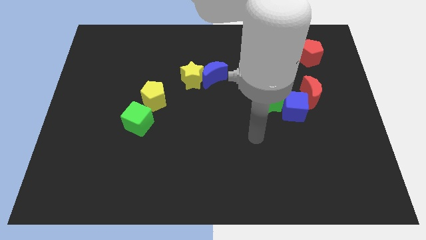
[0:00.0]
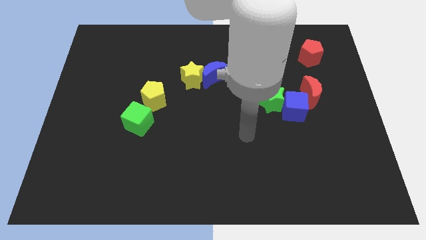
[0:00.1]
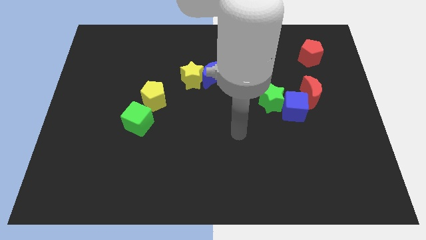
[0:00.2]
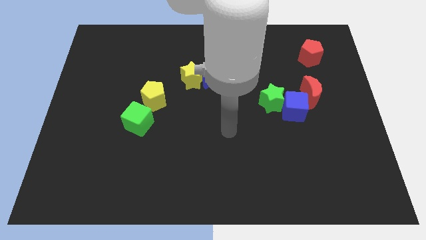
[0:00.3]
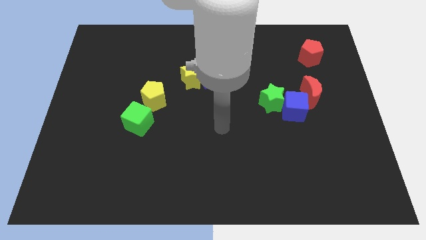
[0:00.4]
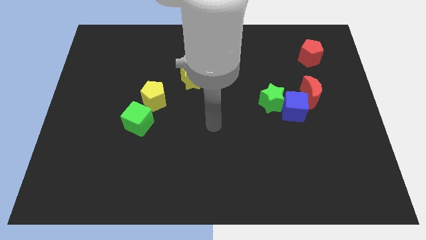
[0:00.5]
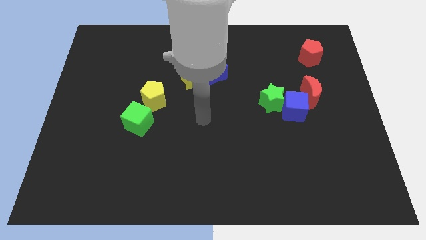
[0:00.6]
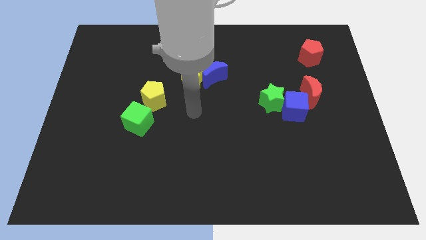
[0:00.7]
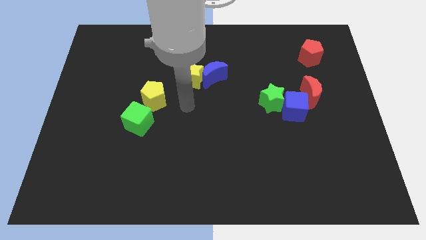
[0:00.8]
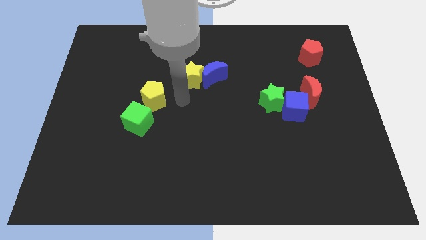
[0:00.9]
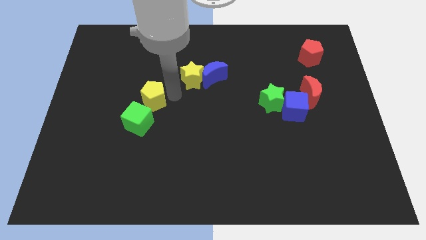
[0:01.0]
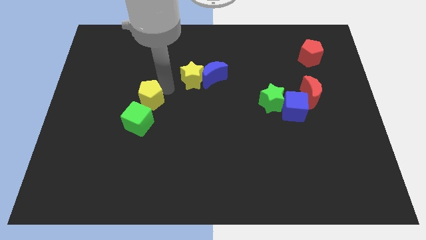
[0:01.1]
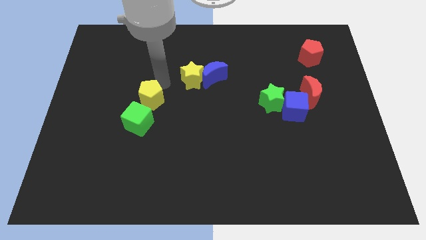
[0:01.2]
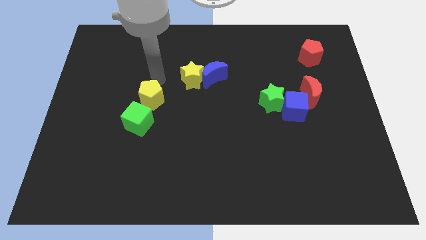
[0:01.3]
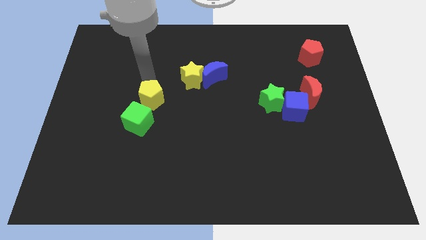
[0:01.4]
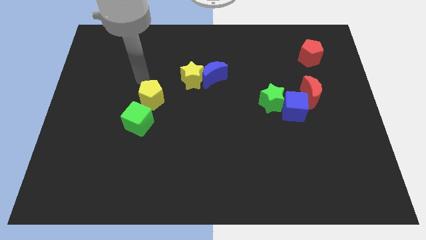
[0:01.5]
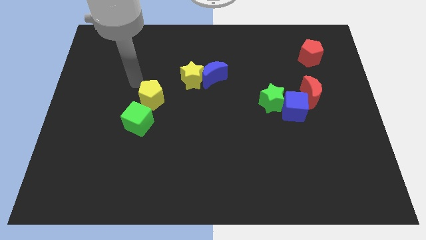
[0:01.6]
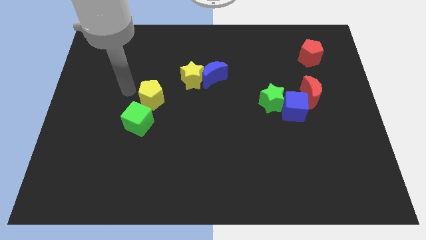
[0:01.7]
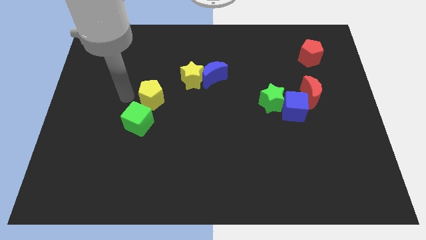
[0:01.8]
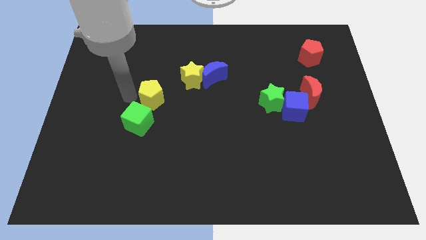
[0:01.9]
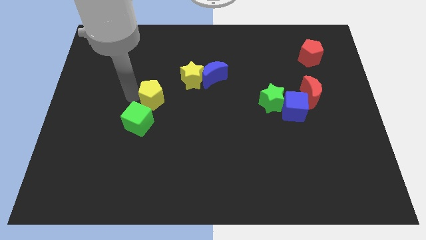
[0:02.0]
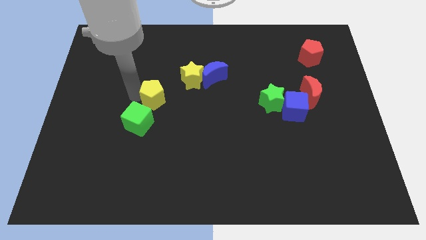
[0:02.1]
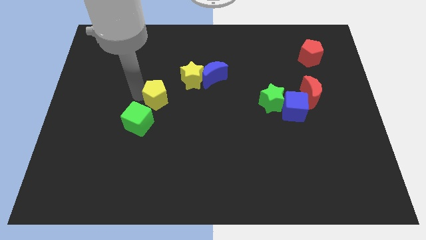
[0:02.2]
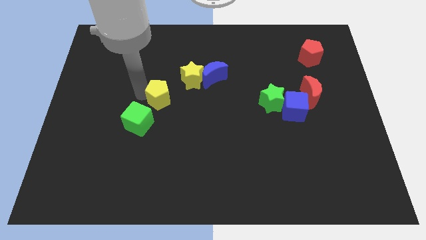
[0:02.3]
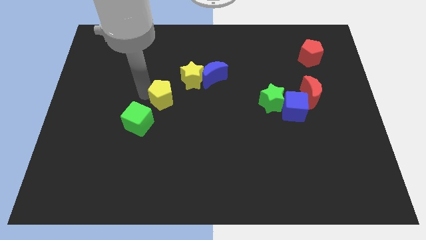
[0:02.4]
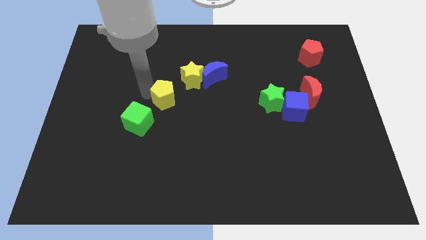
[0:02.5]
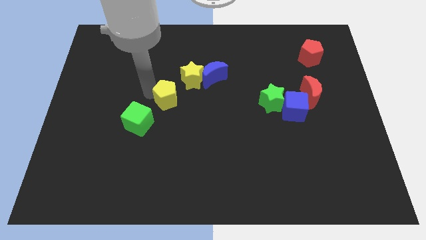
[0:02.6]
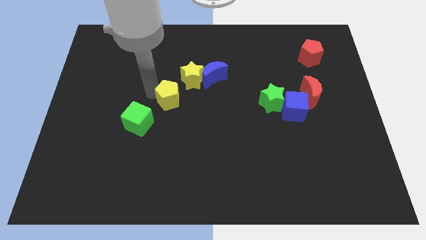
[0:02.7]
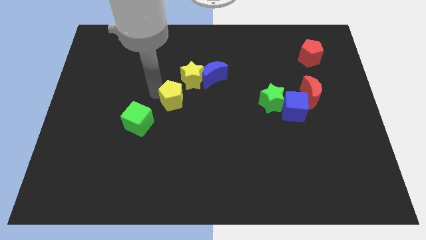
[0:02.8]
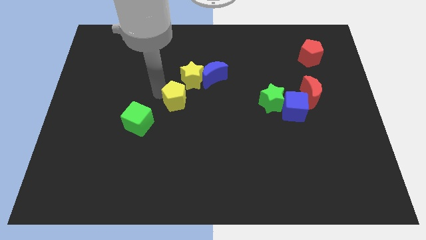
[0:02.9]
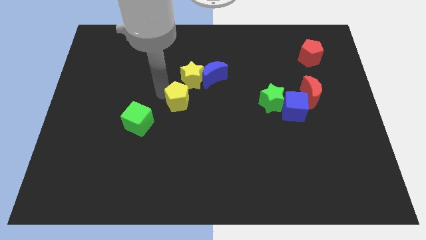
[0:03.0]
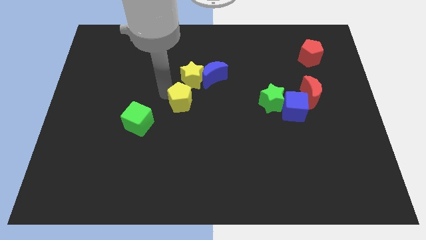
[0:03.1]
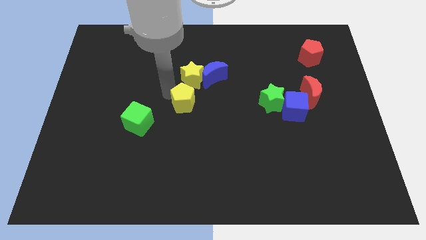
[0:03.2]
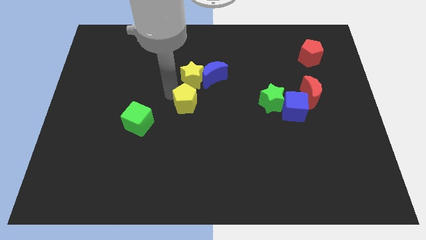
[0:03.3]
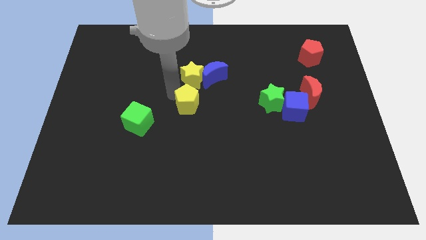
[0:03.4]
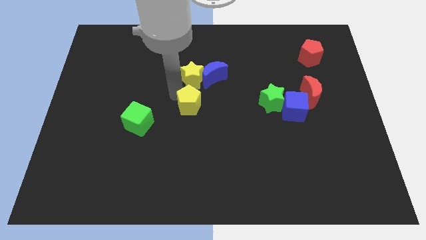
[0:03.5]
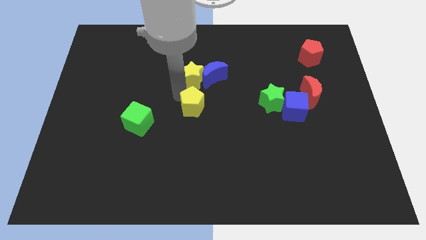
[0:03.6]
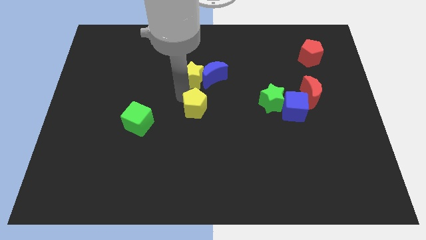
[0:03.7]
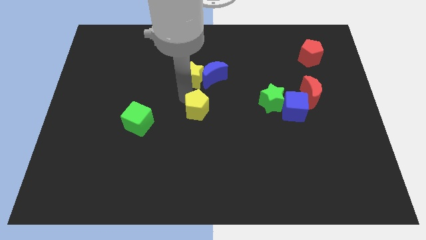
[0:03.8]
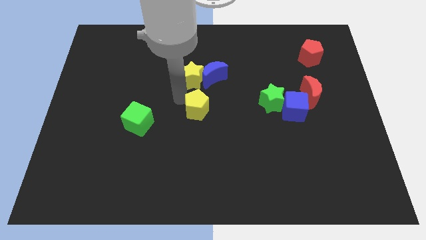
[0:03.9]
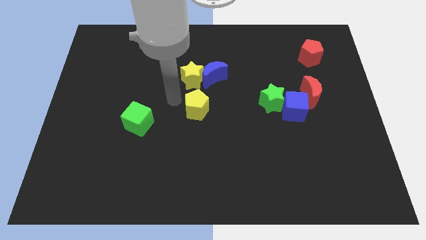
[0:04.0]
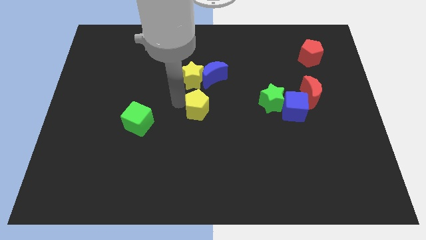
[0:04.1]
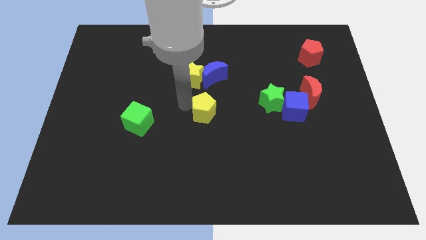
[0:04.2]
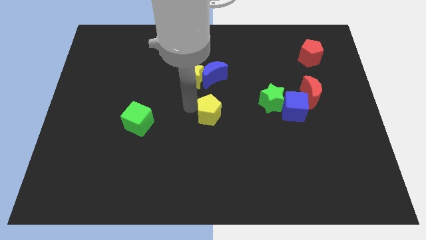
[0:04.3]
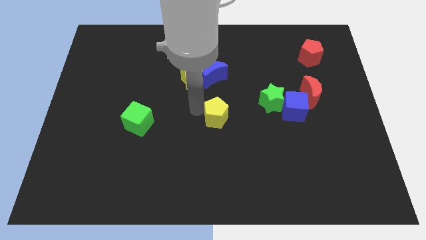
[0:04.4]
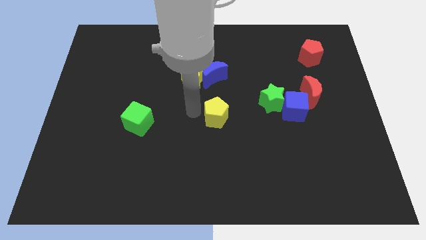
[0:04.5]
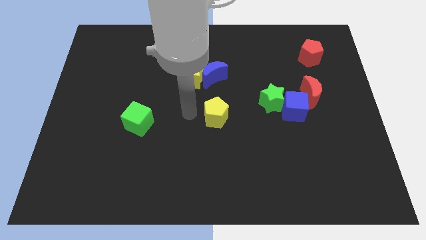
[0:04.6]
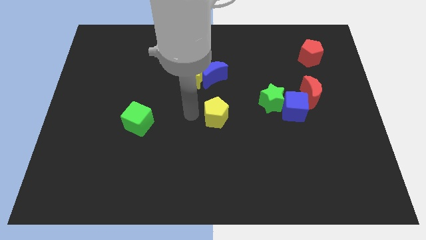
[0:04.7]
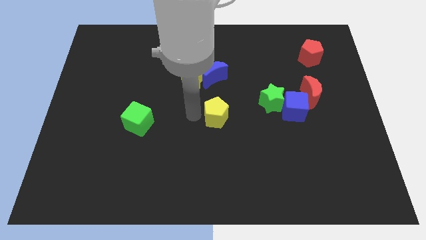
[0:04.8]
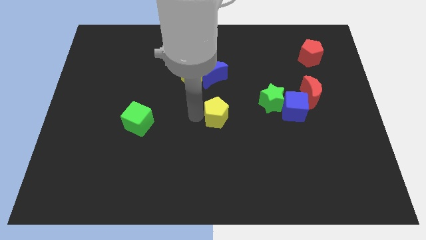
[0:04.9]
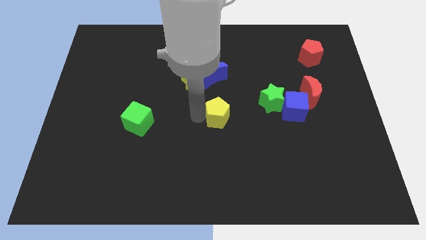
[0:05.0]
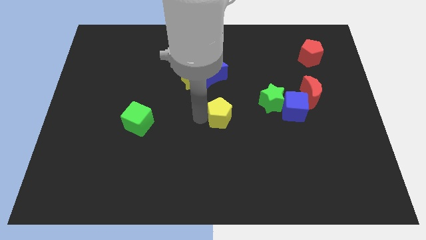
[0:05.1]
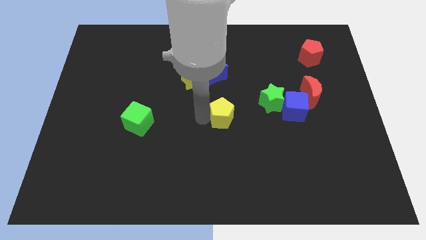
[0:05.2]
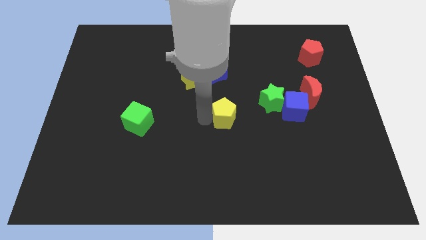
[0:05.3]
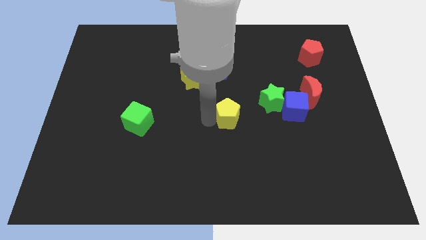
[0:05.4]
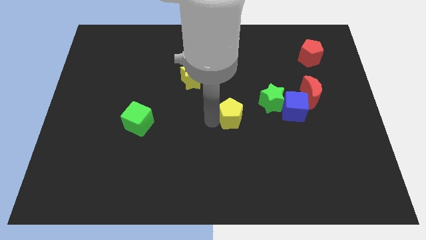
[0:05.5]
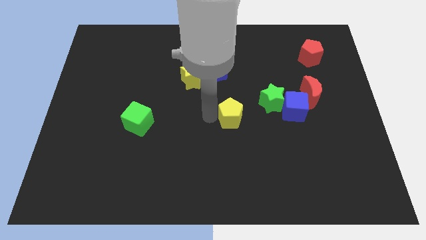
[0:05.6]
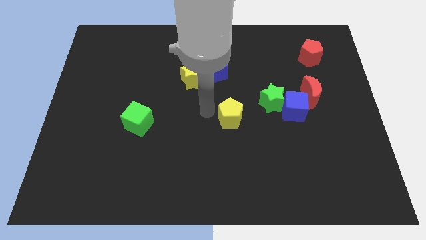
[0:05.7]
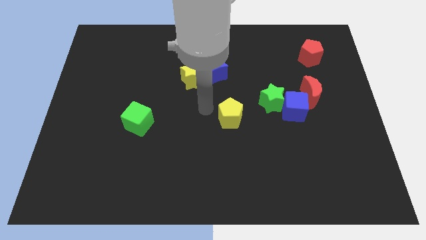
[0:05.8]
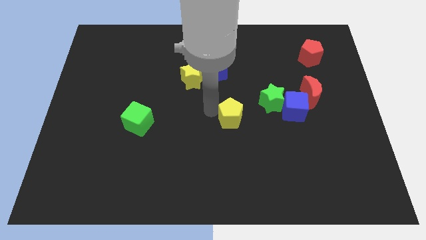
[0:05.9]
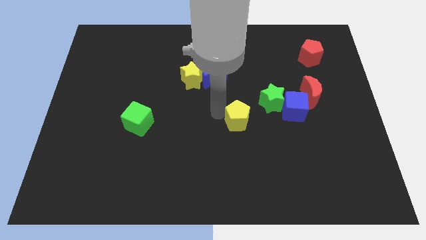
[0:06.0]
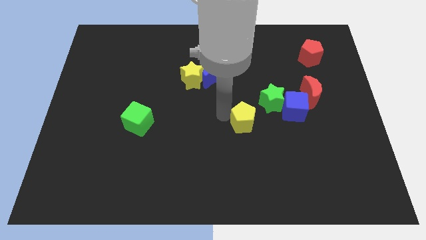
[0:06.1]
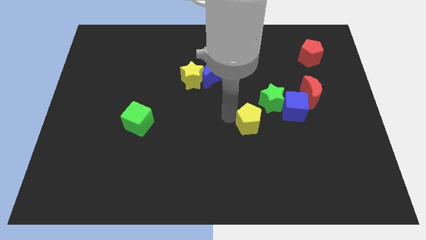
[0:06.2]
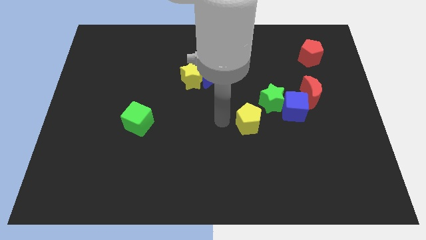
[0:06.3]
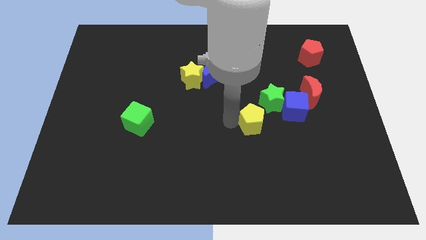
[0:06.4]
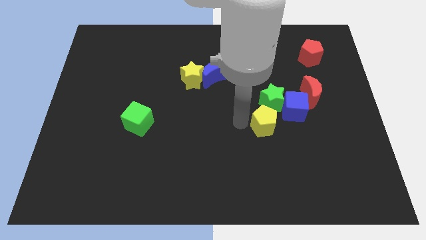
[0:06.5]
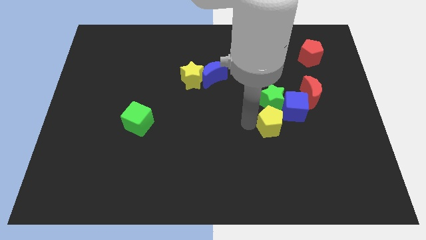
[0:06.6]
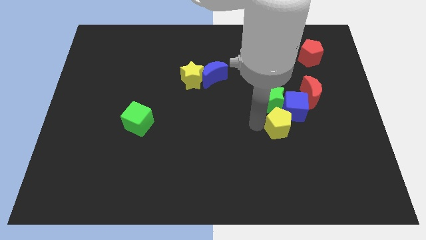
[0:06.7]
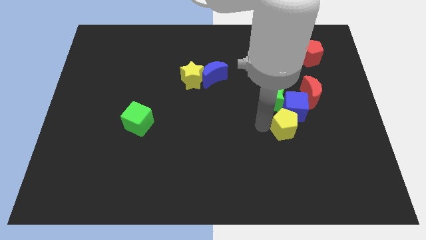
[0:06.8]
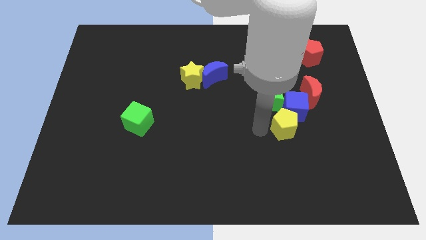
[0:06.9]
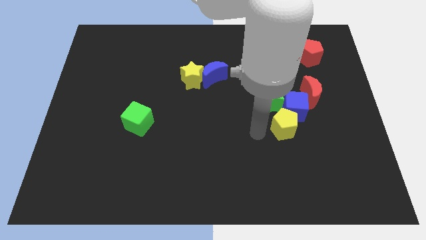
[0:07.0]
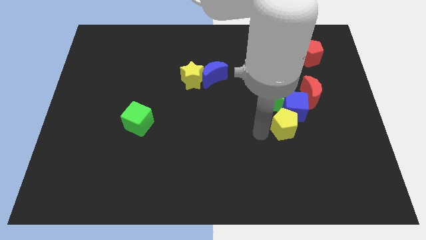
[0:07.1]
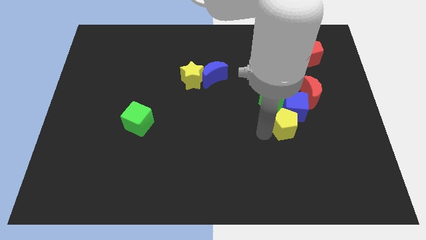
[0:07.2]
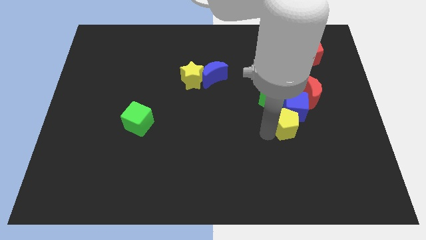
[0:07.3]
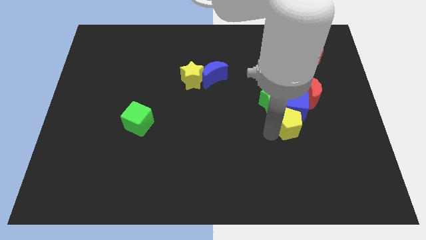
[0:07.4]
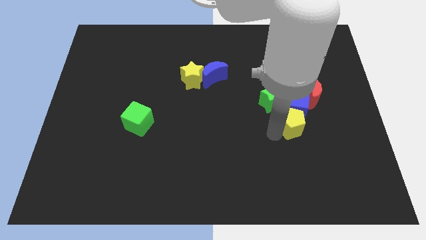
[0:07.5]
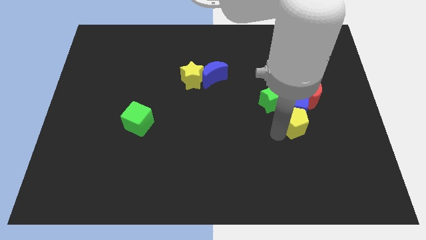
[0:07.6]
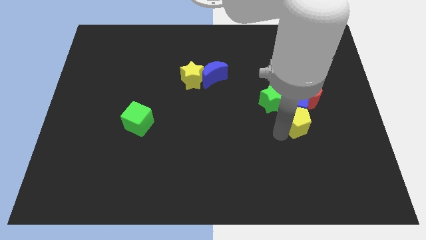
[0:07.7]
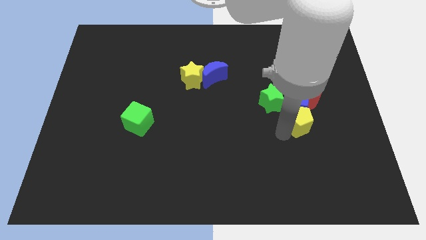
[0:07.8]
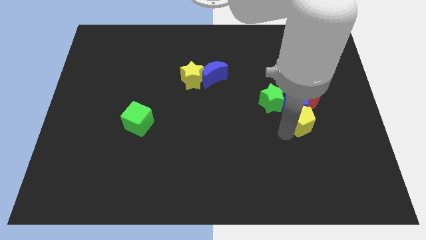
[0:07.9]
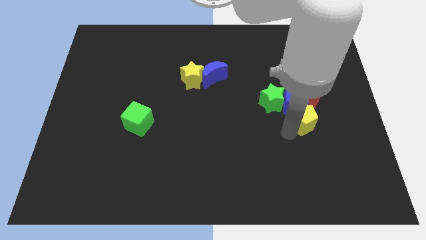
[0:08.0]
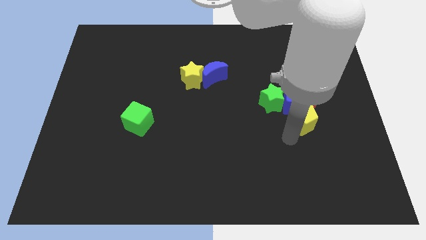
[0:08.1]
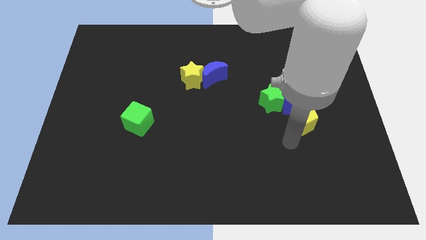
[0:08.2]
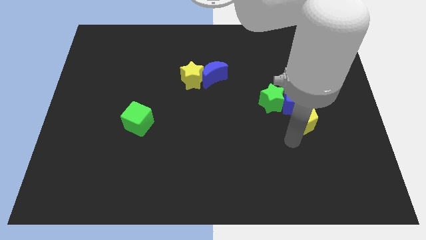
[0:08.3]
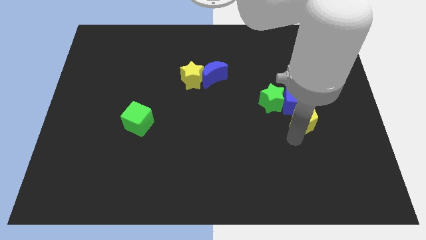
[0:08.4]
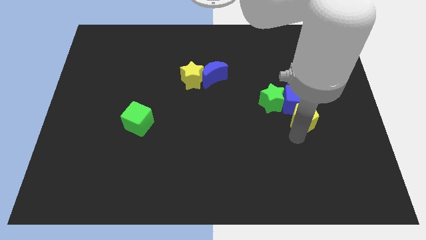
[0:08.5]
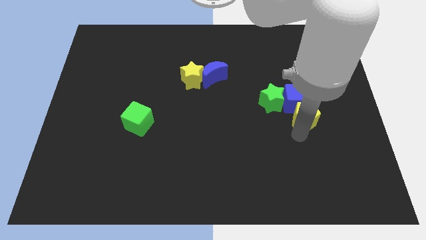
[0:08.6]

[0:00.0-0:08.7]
slide the yellow pentagon to the right side of the green star
